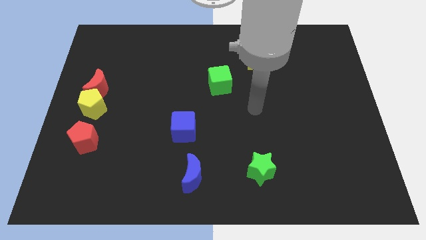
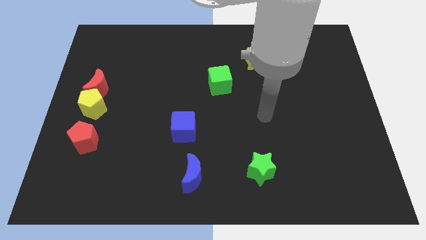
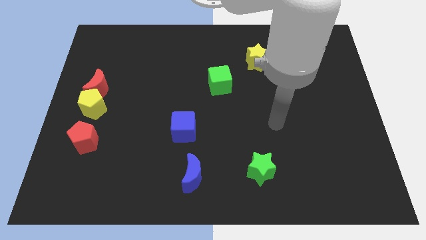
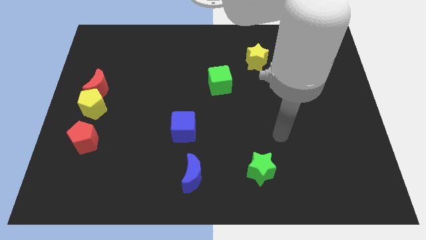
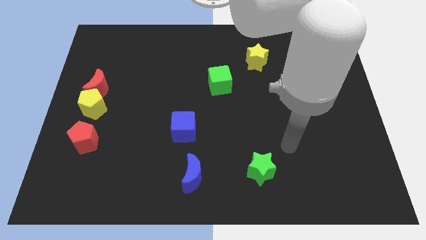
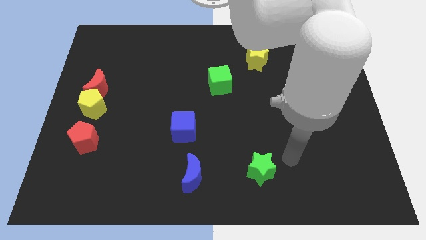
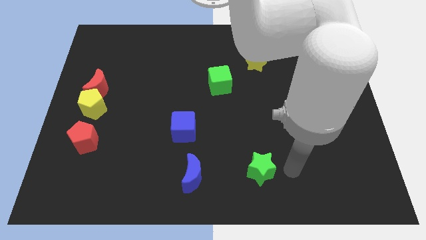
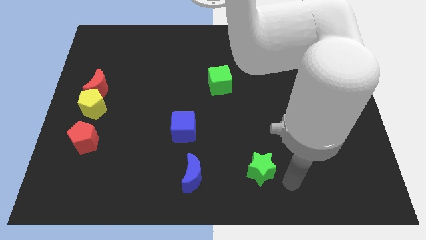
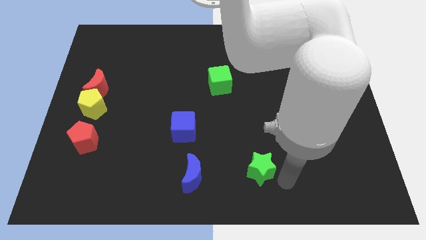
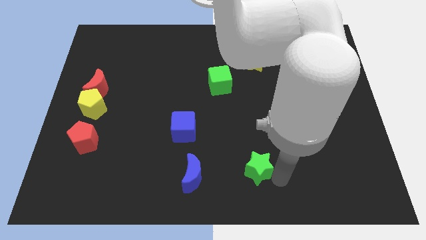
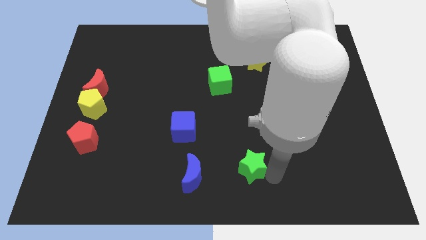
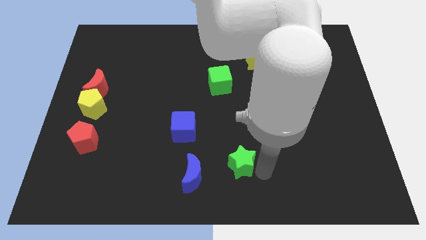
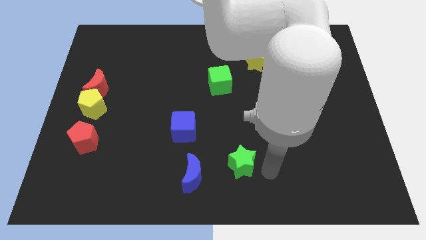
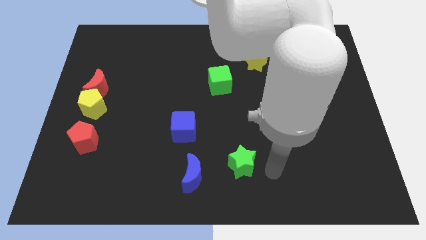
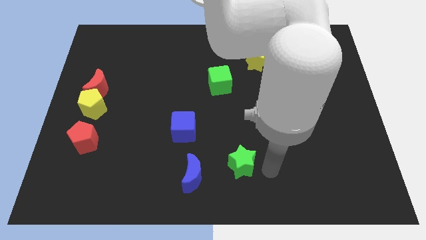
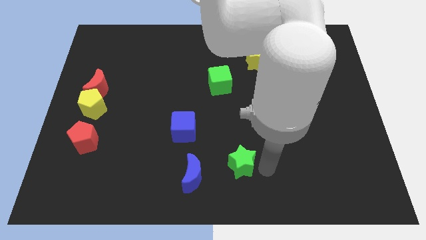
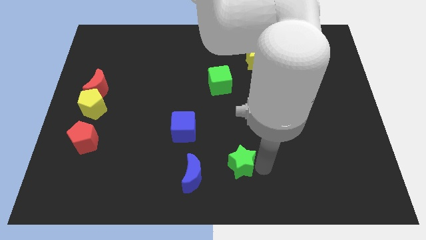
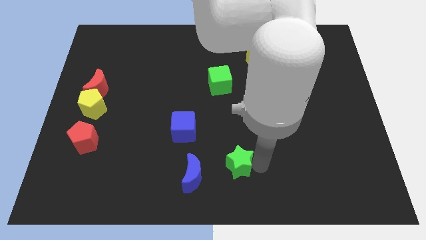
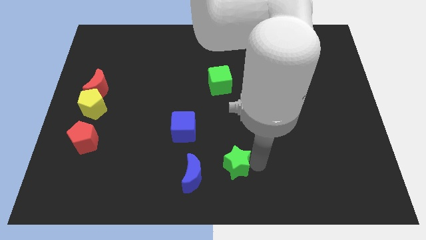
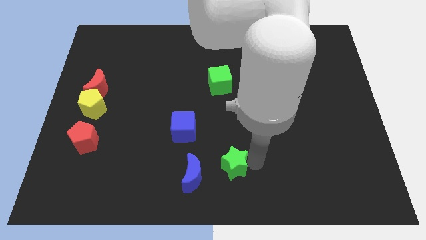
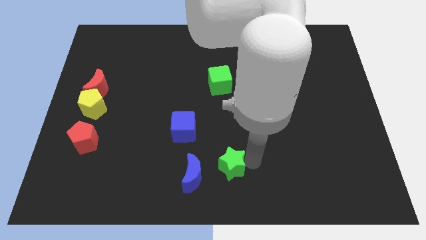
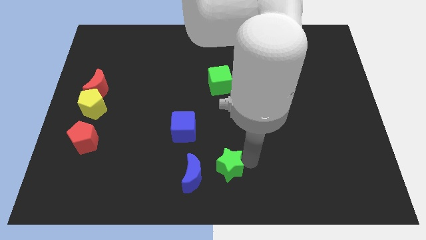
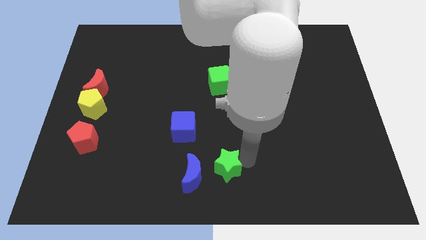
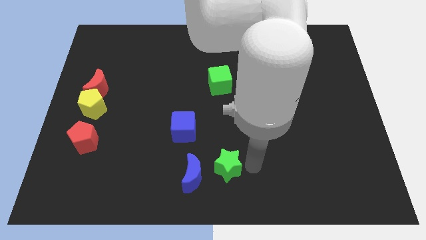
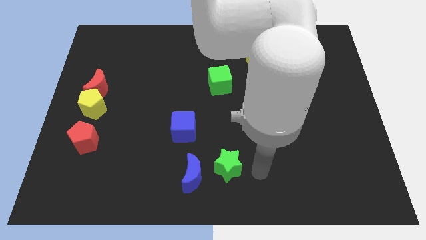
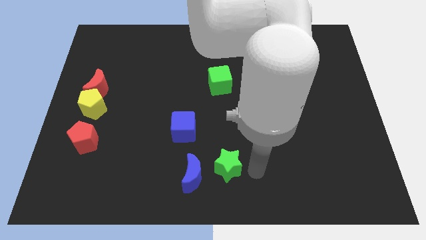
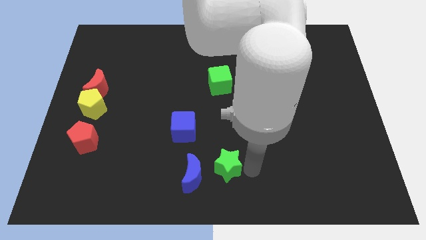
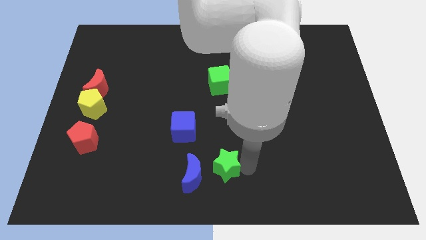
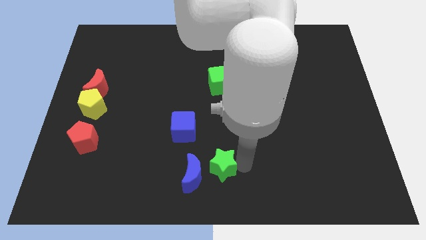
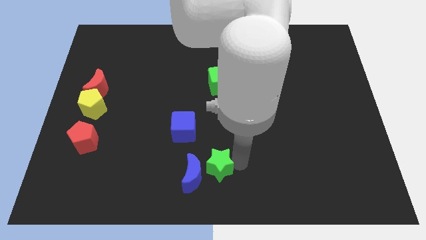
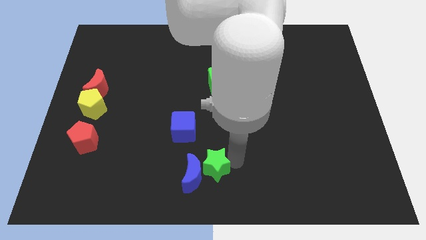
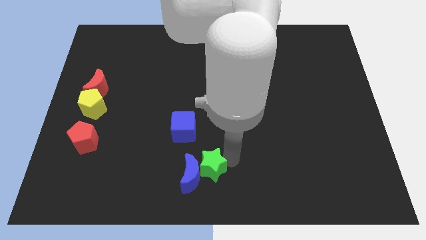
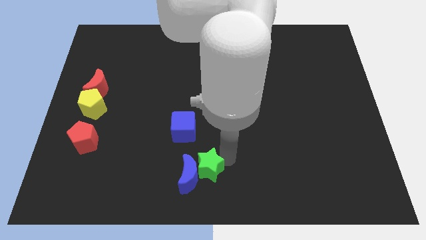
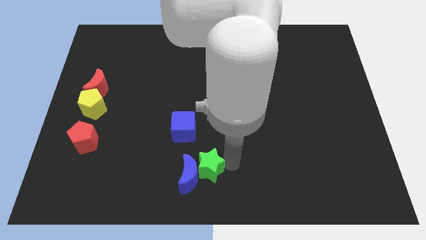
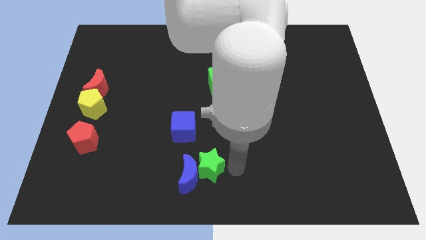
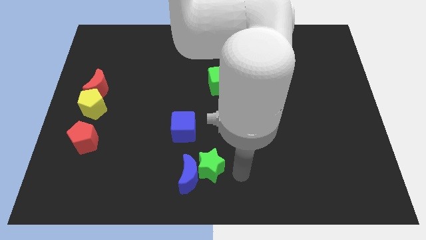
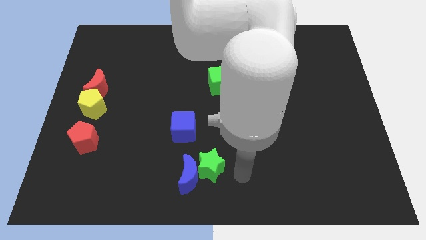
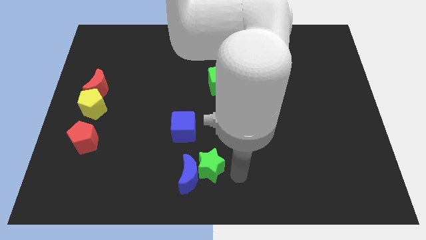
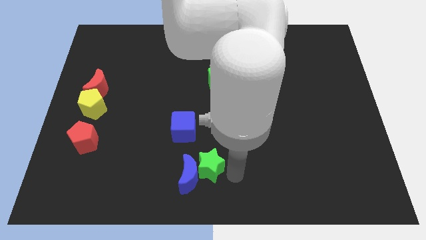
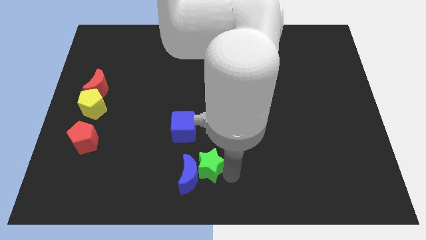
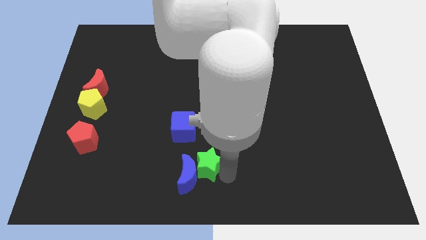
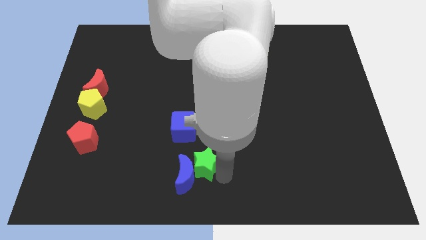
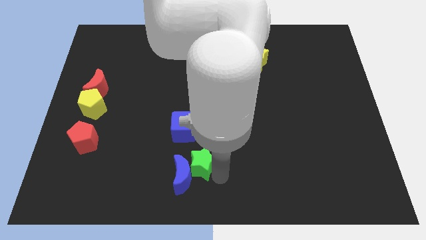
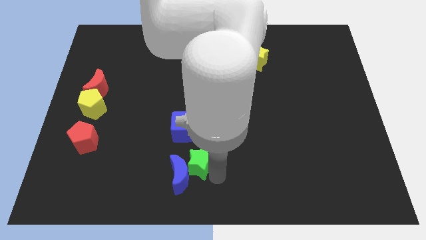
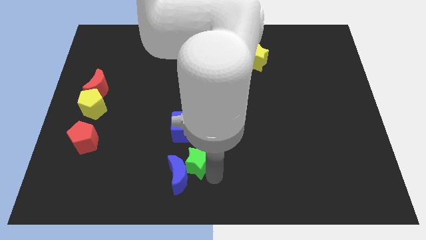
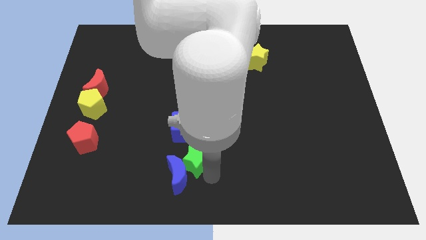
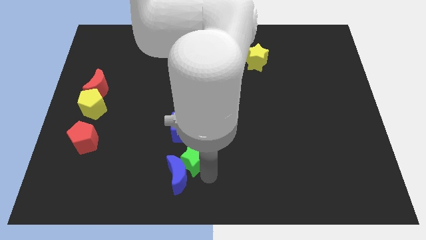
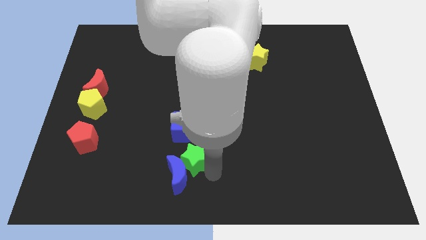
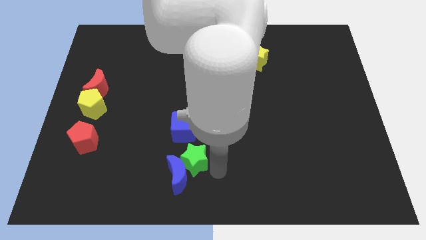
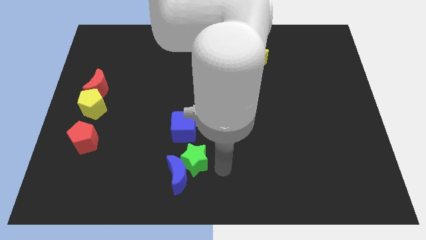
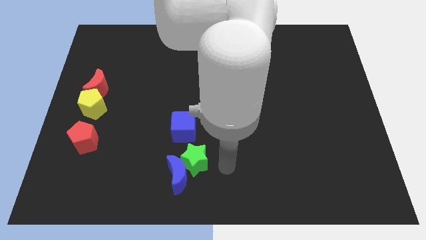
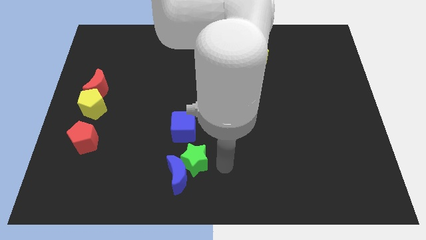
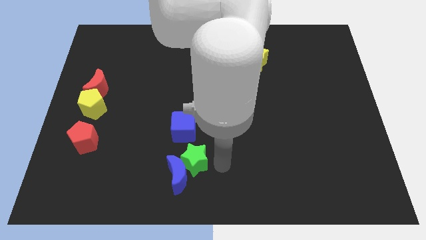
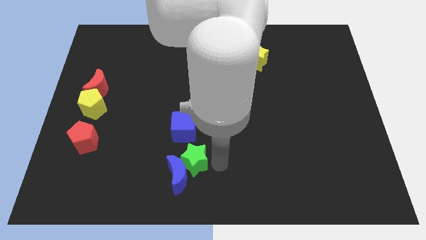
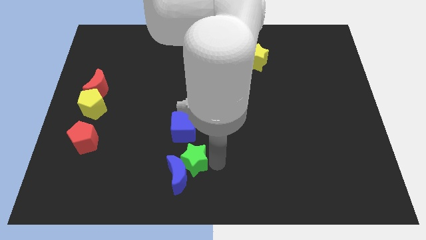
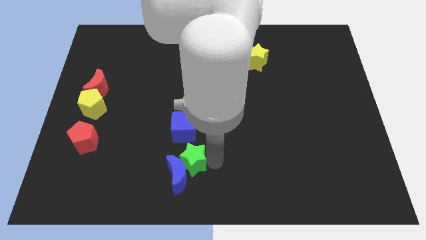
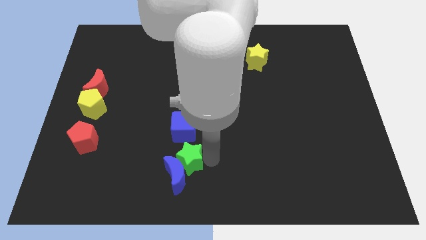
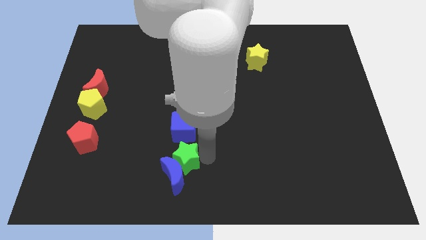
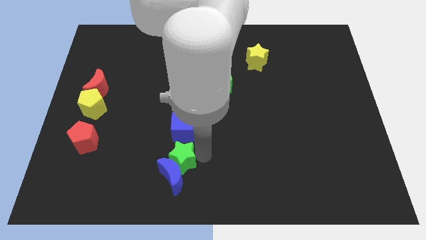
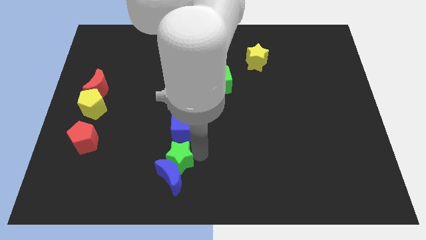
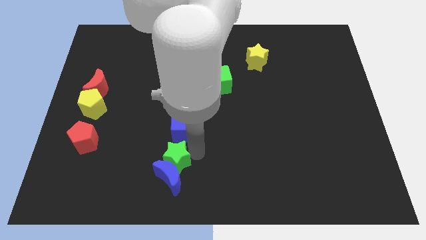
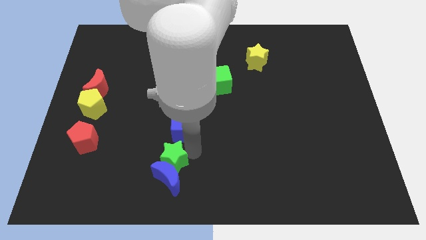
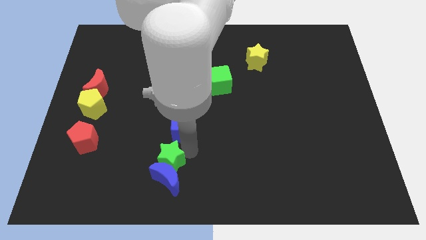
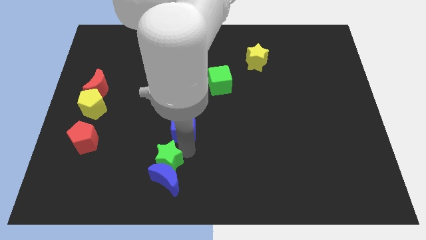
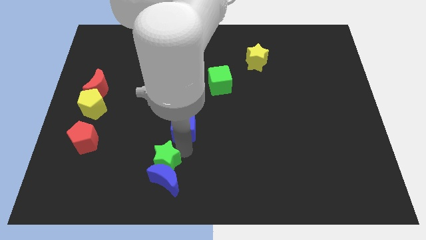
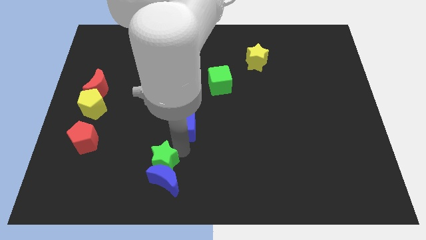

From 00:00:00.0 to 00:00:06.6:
push the green star to the left

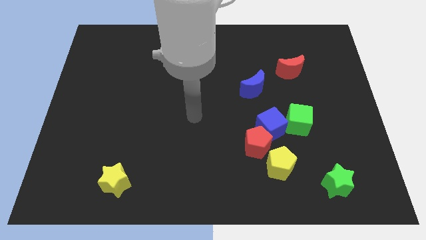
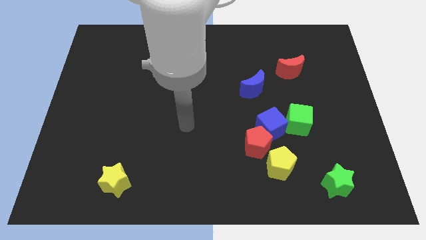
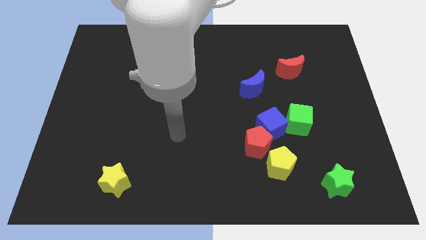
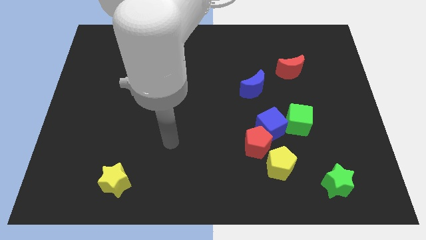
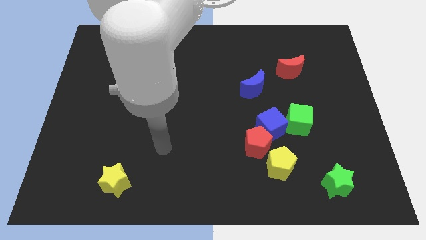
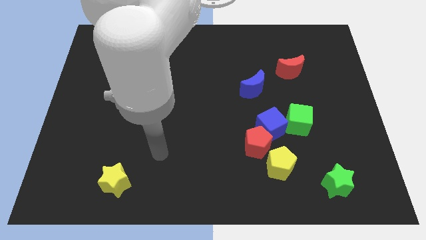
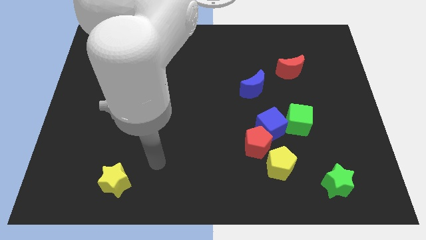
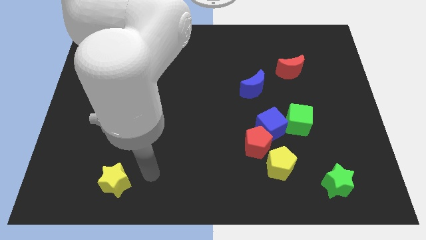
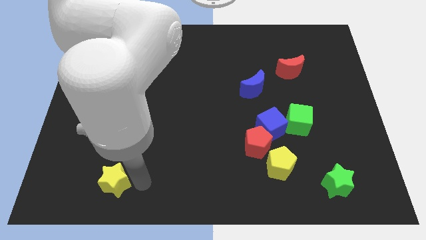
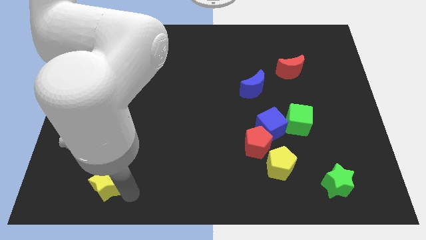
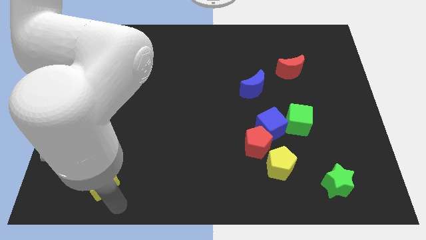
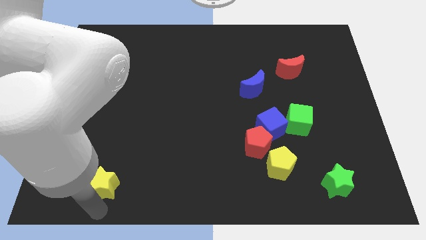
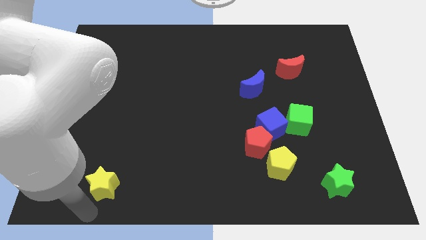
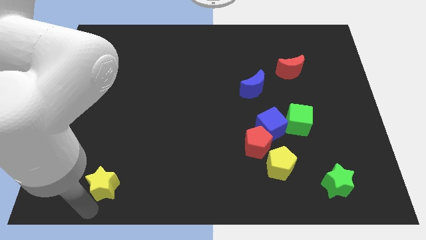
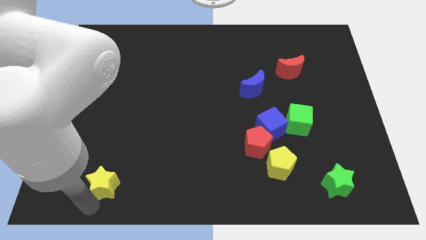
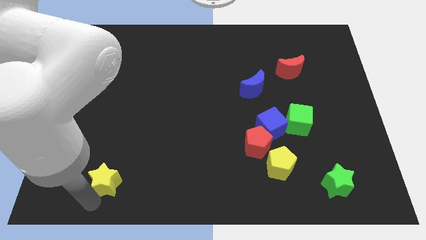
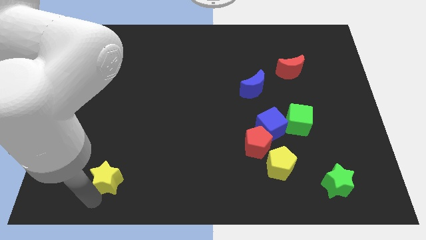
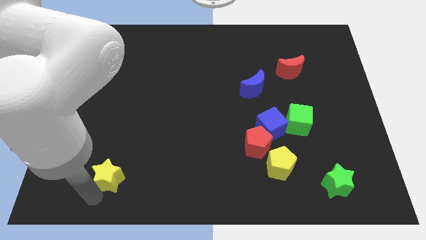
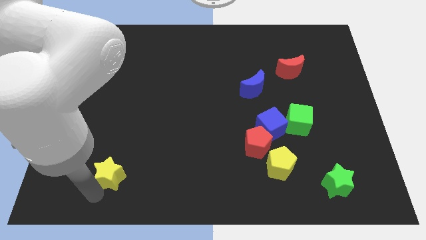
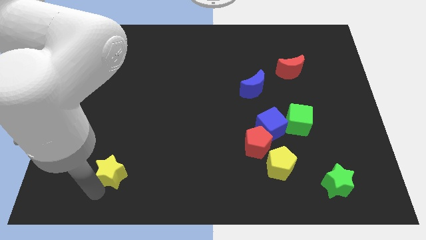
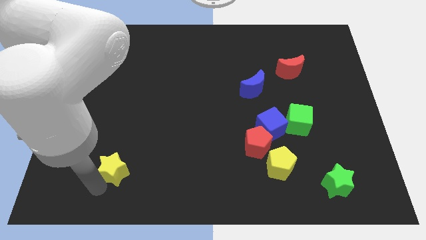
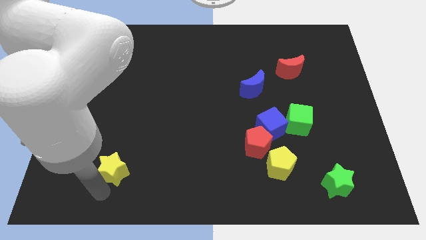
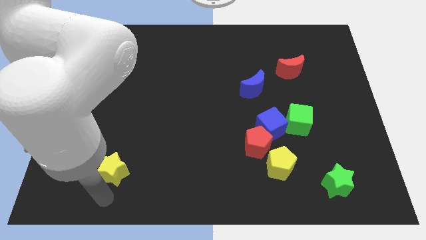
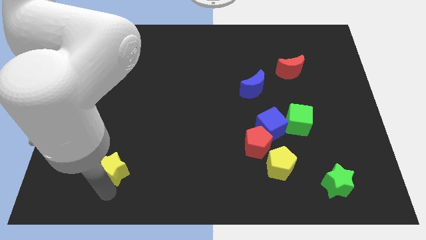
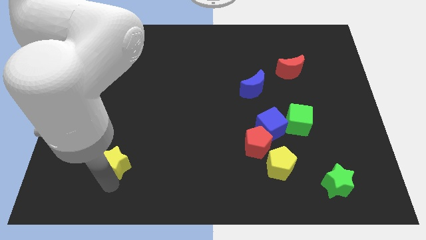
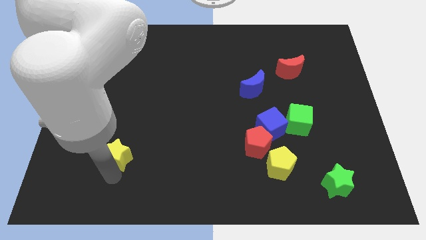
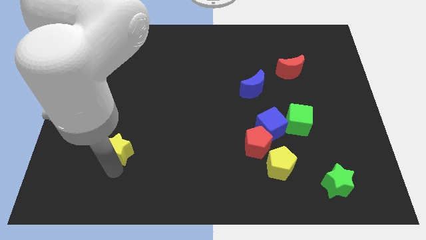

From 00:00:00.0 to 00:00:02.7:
slightly slide the yellow star upwards
